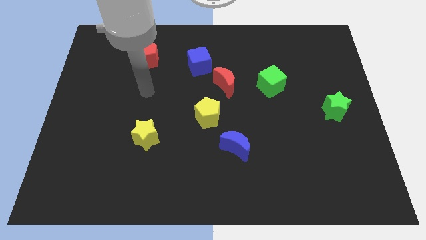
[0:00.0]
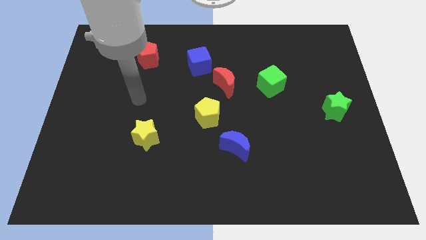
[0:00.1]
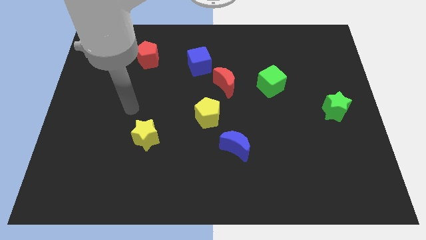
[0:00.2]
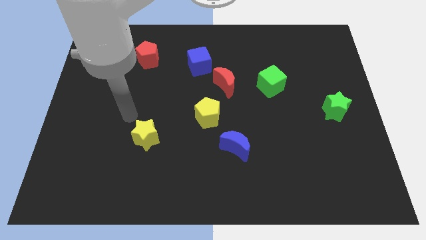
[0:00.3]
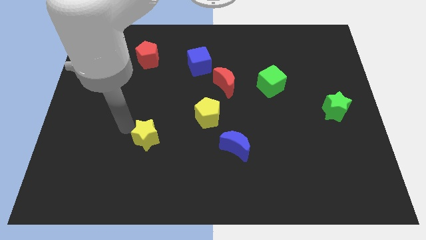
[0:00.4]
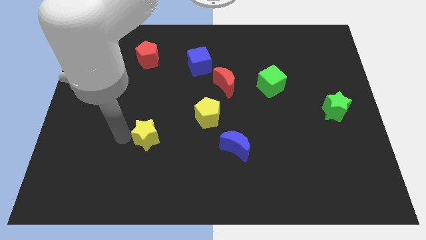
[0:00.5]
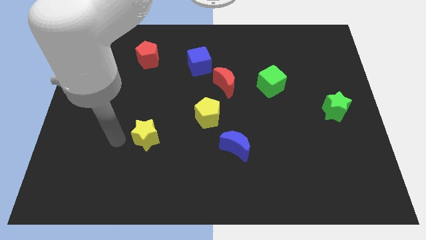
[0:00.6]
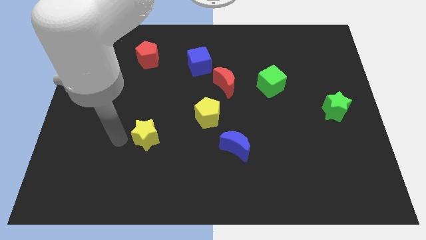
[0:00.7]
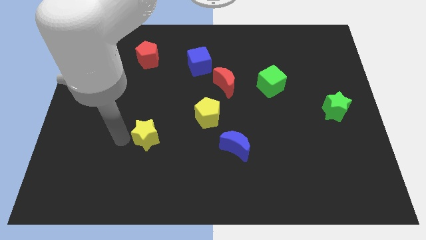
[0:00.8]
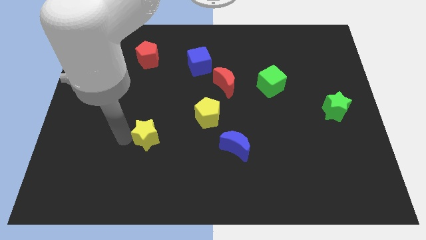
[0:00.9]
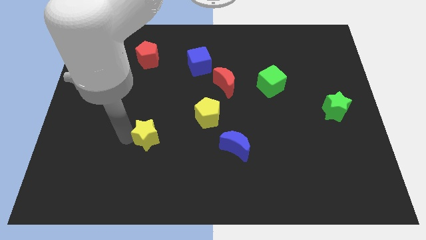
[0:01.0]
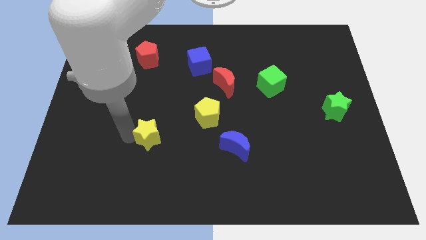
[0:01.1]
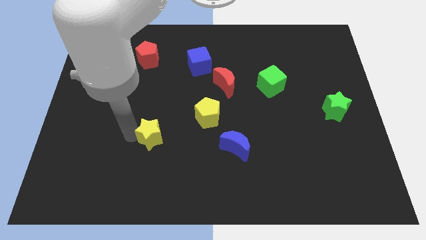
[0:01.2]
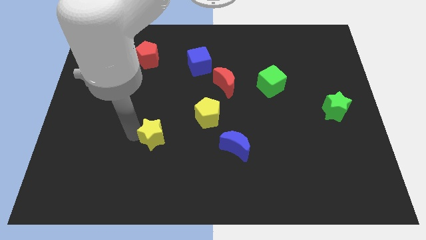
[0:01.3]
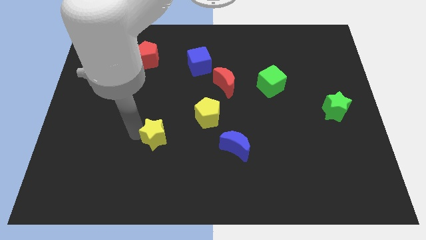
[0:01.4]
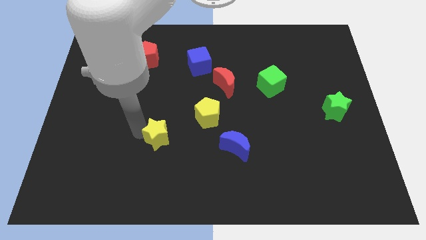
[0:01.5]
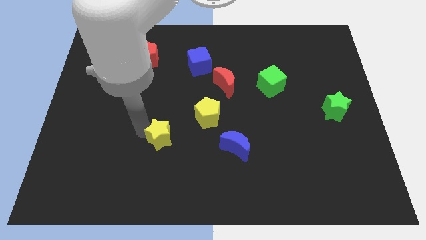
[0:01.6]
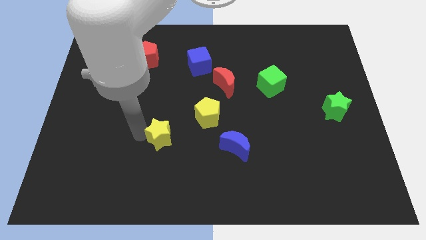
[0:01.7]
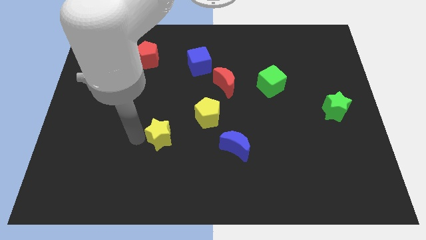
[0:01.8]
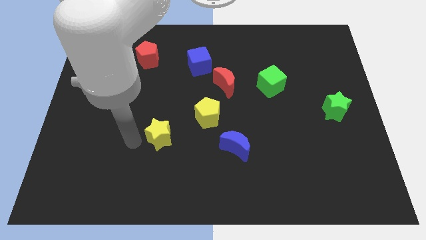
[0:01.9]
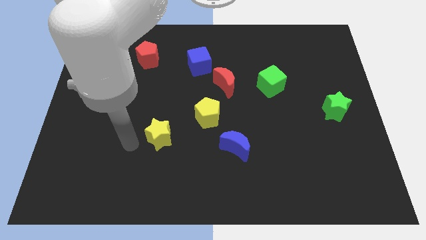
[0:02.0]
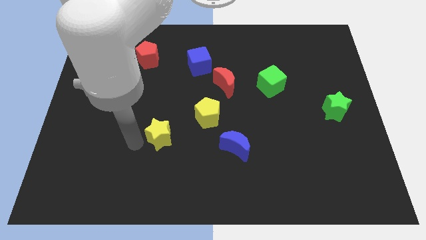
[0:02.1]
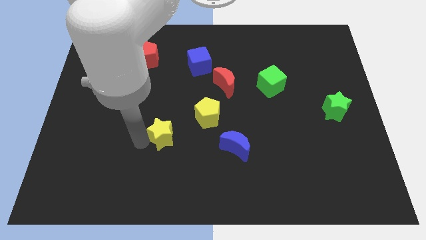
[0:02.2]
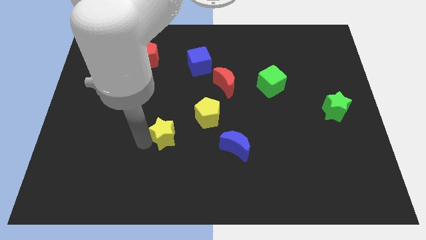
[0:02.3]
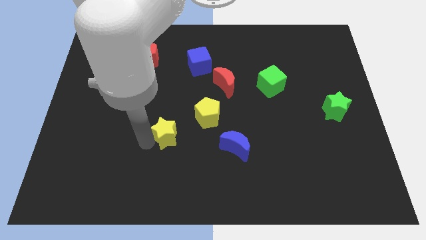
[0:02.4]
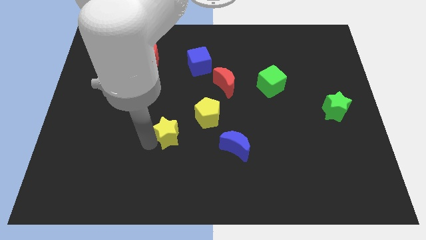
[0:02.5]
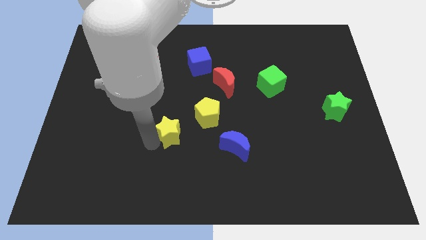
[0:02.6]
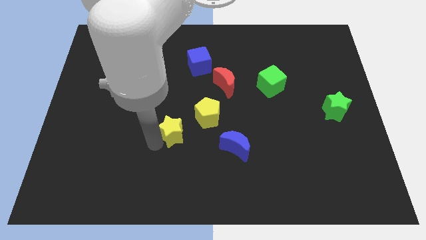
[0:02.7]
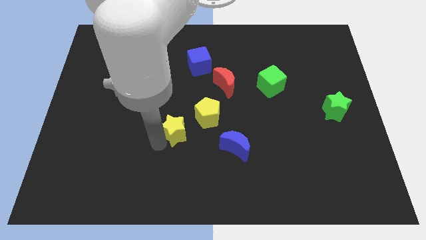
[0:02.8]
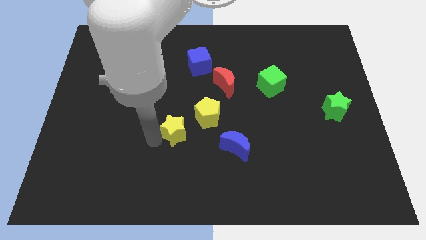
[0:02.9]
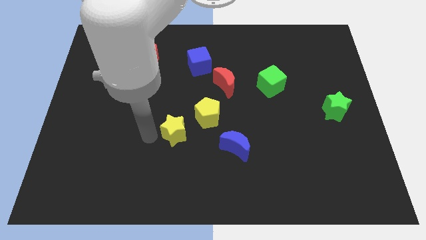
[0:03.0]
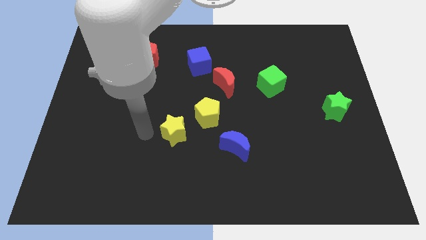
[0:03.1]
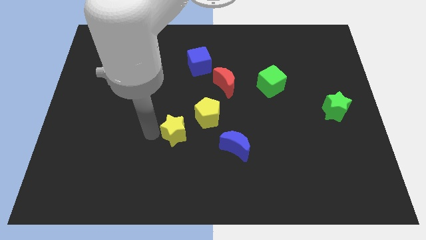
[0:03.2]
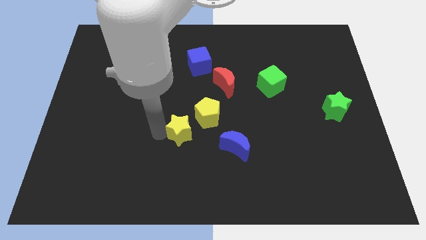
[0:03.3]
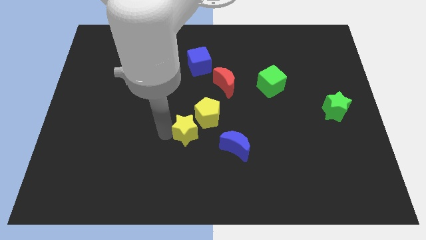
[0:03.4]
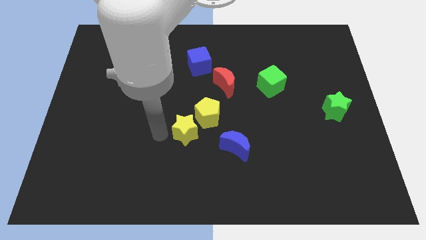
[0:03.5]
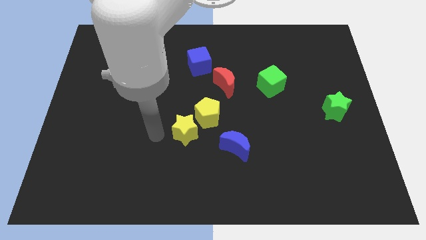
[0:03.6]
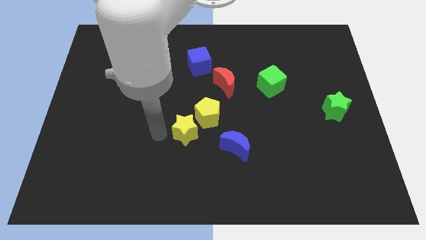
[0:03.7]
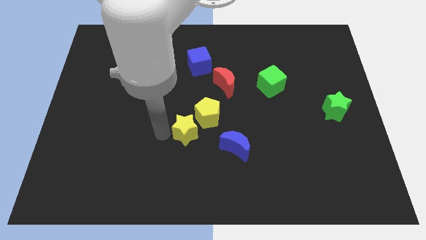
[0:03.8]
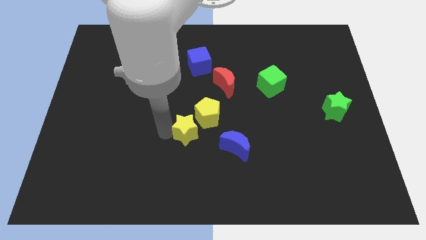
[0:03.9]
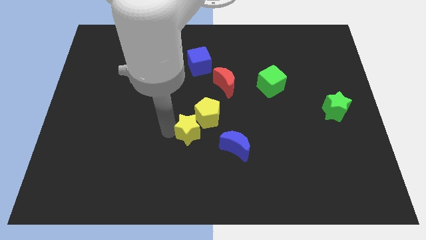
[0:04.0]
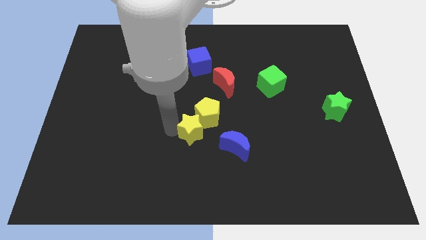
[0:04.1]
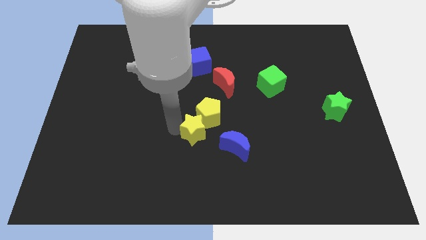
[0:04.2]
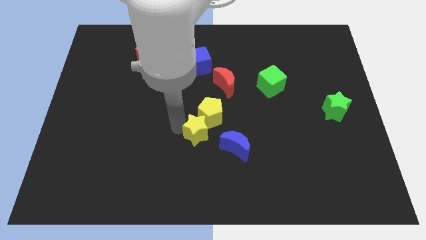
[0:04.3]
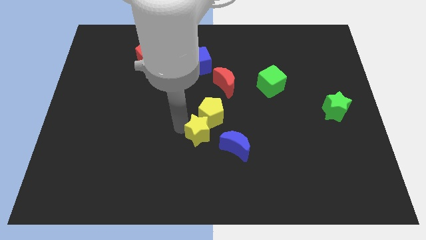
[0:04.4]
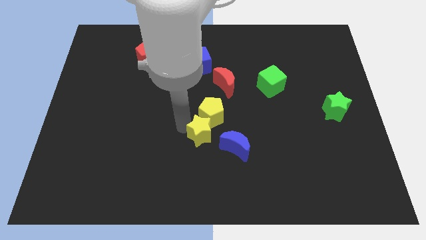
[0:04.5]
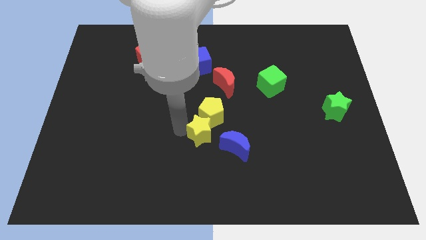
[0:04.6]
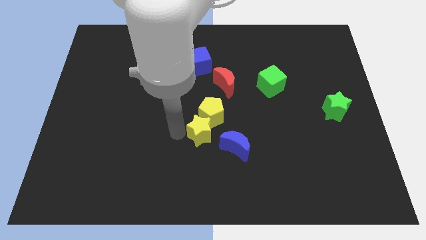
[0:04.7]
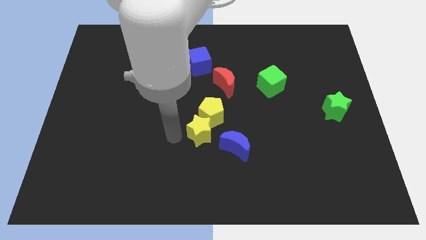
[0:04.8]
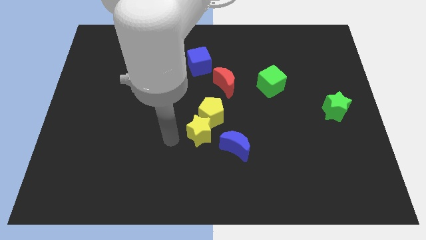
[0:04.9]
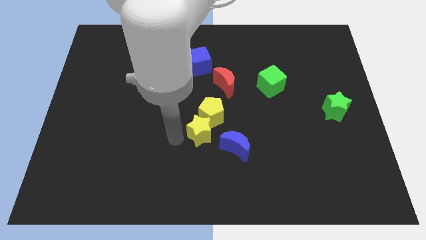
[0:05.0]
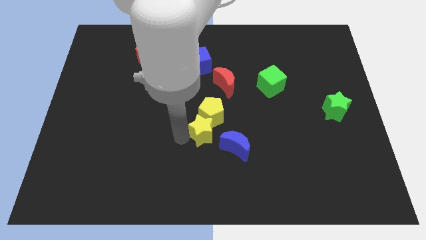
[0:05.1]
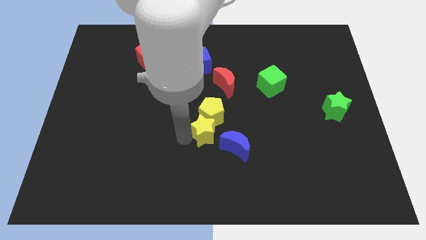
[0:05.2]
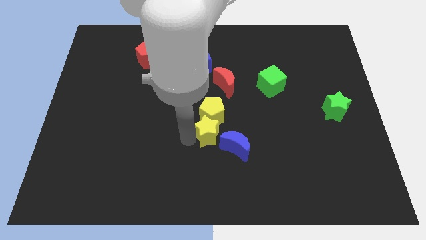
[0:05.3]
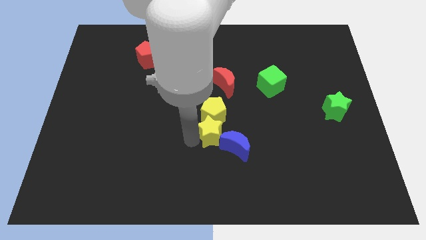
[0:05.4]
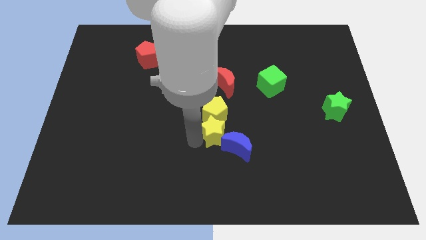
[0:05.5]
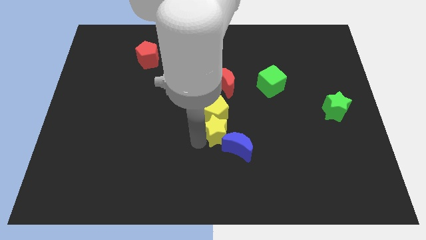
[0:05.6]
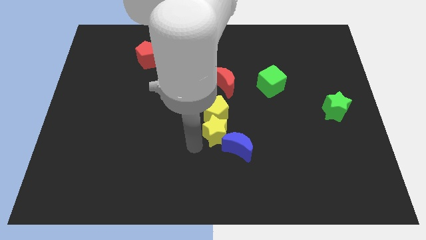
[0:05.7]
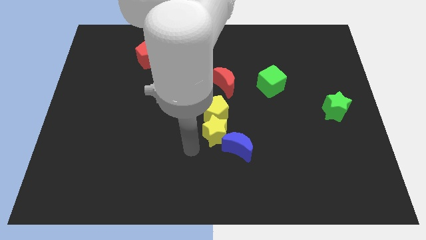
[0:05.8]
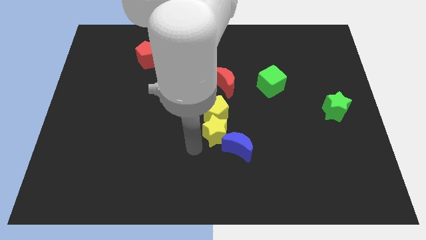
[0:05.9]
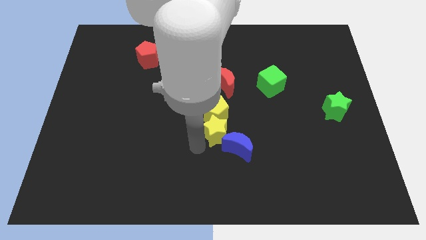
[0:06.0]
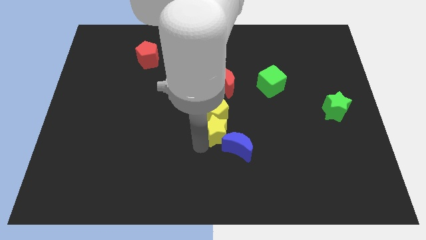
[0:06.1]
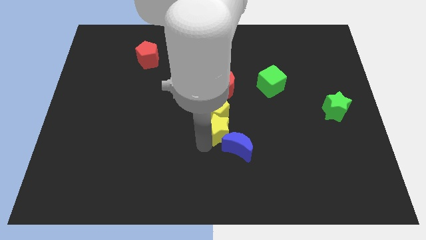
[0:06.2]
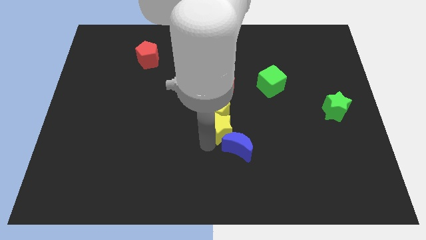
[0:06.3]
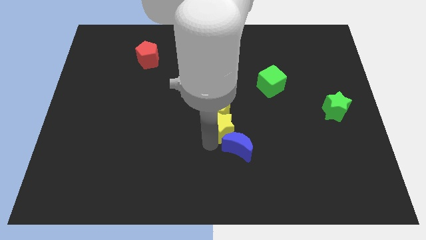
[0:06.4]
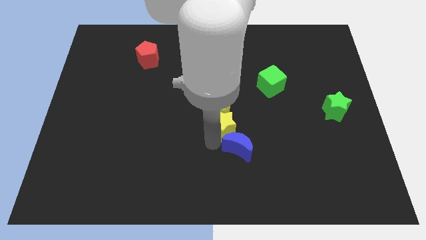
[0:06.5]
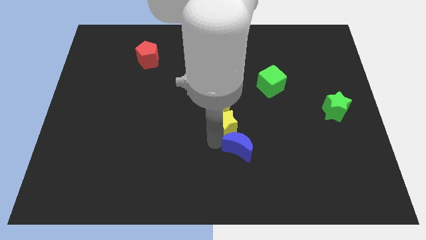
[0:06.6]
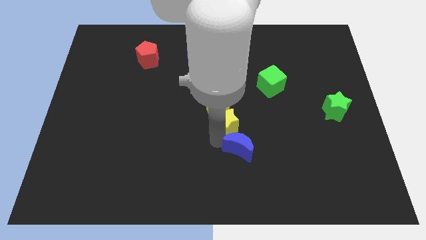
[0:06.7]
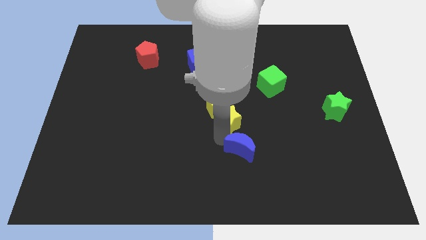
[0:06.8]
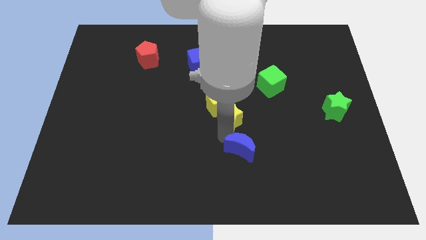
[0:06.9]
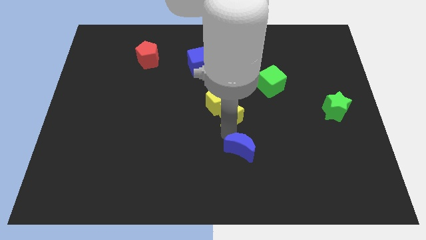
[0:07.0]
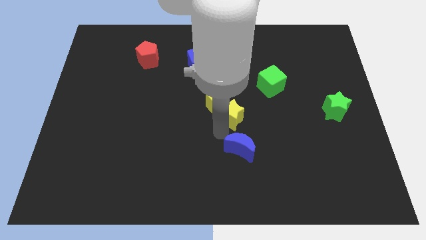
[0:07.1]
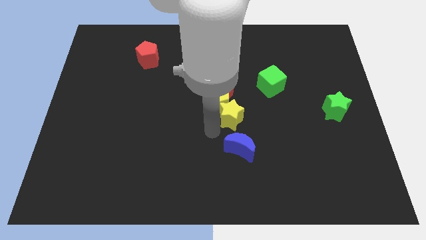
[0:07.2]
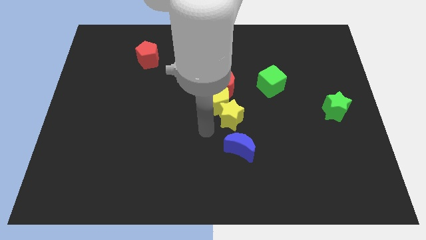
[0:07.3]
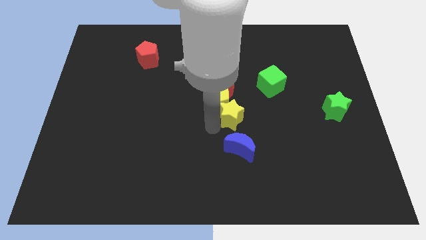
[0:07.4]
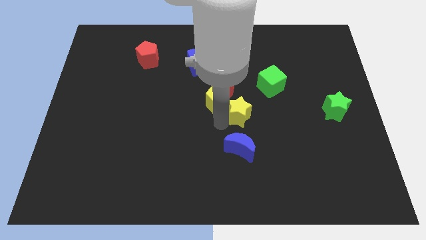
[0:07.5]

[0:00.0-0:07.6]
push the yellow star just right of the yellow pentagon

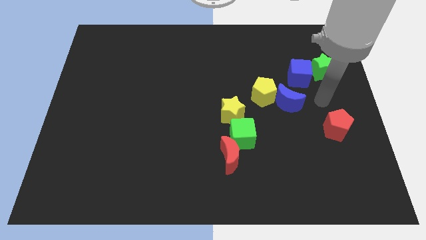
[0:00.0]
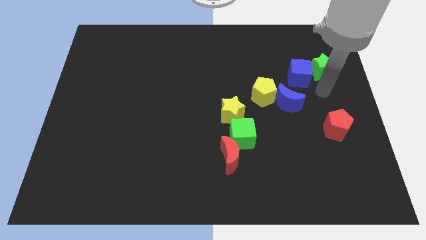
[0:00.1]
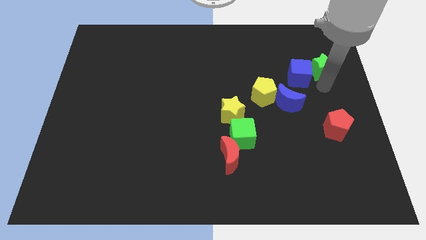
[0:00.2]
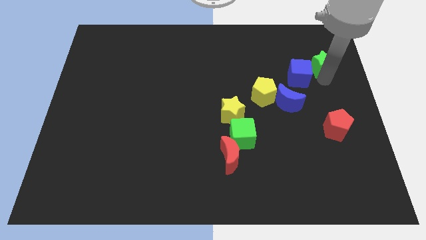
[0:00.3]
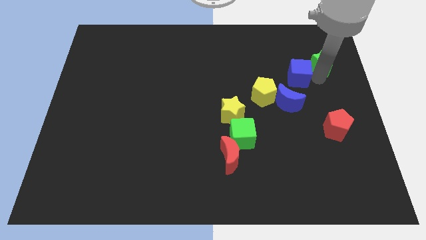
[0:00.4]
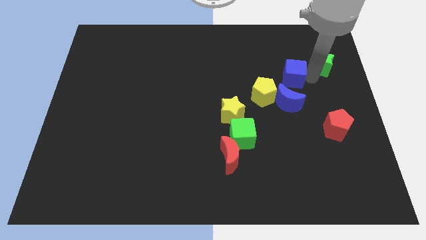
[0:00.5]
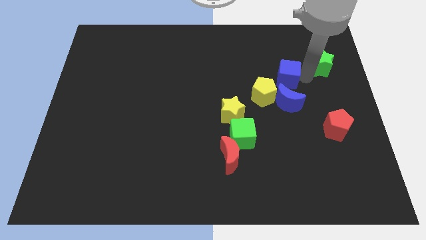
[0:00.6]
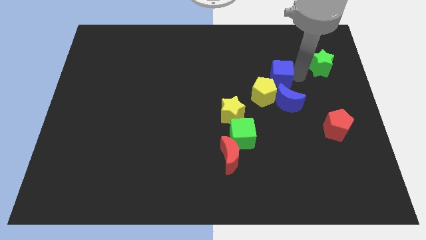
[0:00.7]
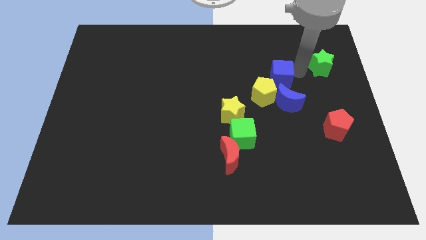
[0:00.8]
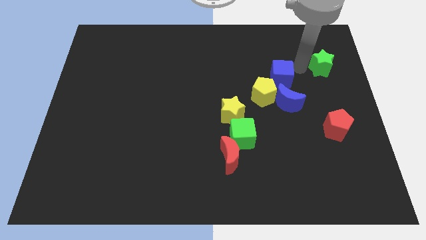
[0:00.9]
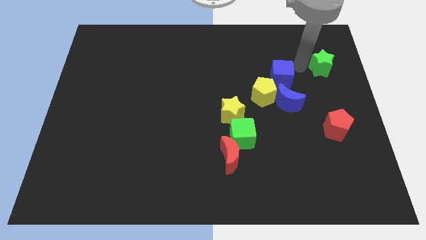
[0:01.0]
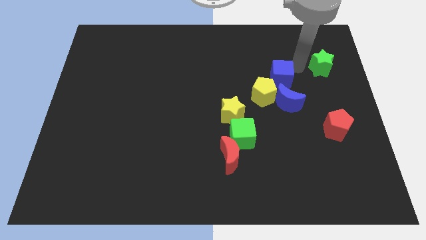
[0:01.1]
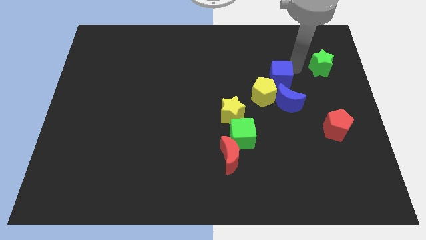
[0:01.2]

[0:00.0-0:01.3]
put the blue cube to the top left side of the blue moon
